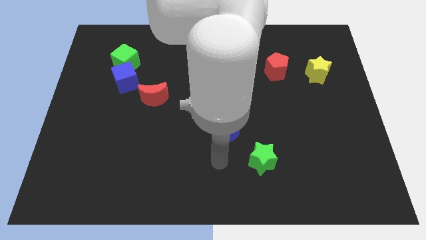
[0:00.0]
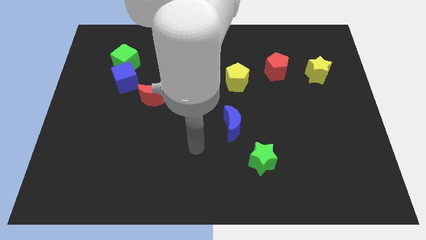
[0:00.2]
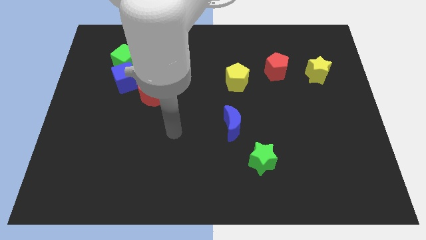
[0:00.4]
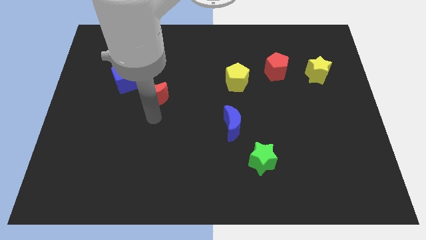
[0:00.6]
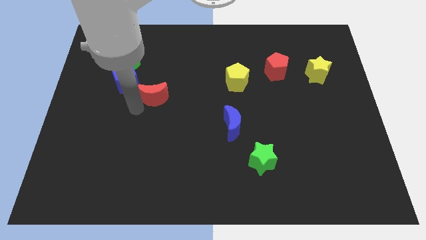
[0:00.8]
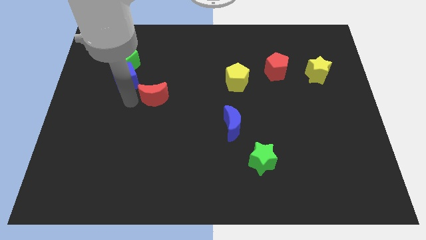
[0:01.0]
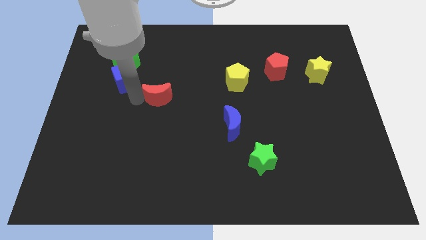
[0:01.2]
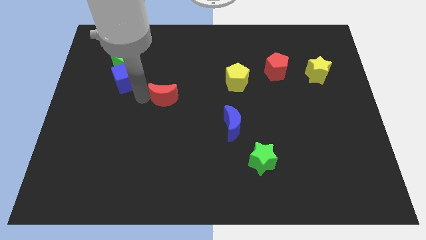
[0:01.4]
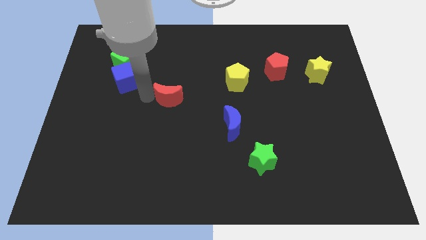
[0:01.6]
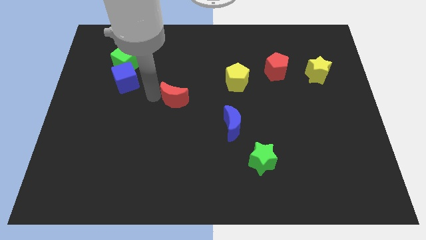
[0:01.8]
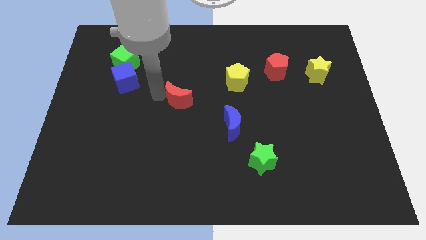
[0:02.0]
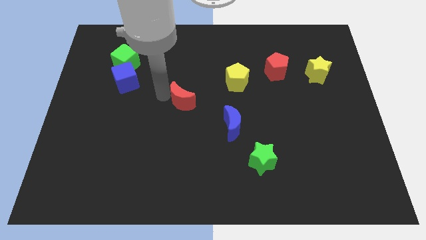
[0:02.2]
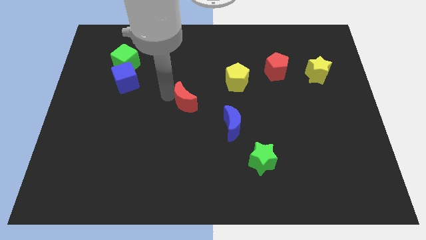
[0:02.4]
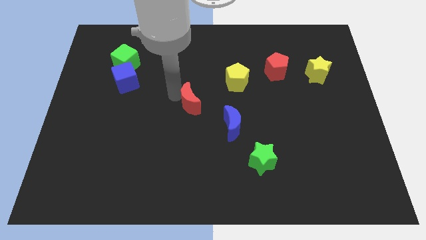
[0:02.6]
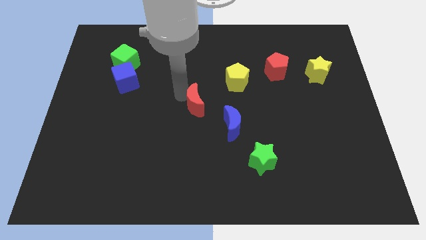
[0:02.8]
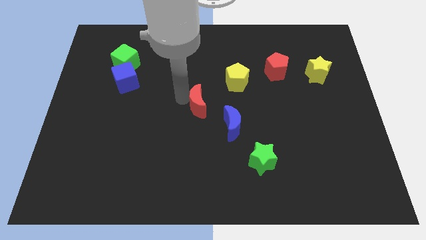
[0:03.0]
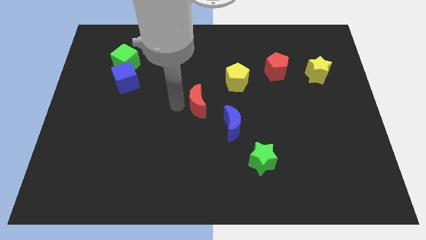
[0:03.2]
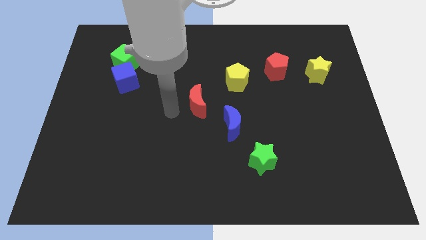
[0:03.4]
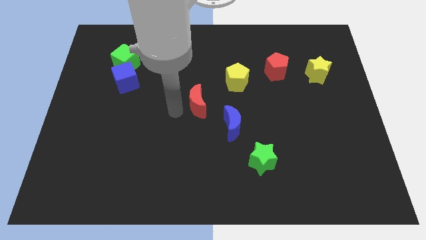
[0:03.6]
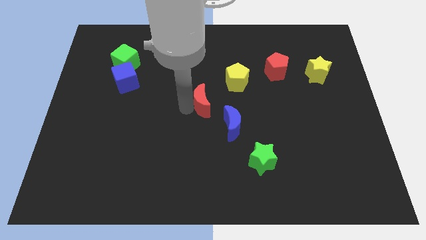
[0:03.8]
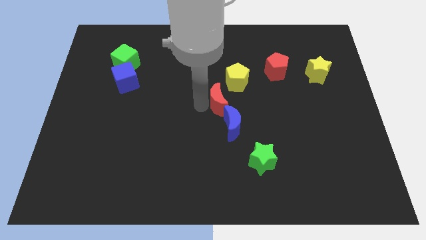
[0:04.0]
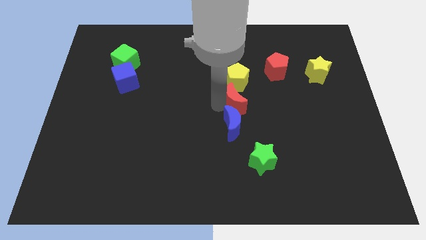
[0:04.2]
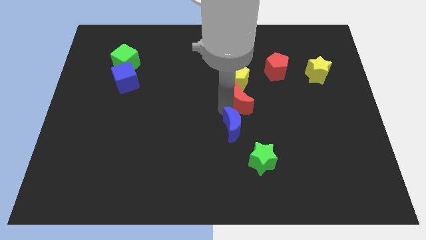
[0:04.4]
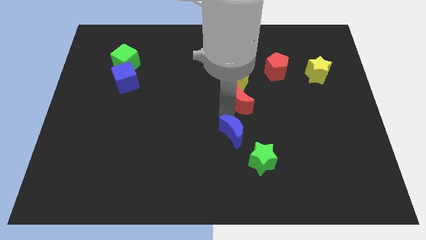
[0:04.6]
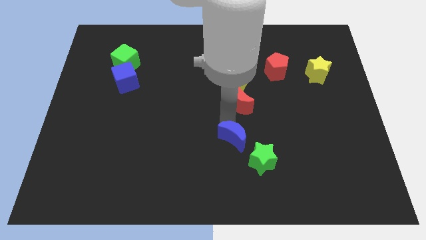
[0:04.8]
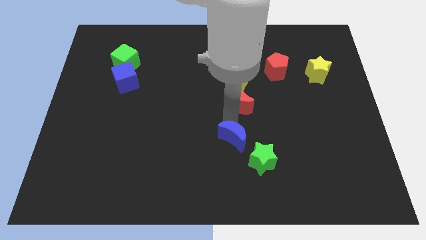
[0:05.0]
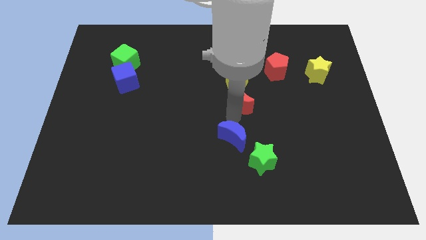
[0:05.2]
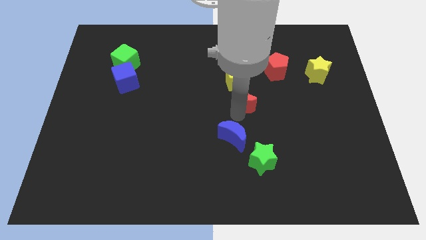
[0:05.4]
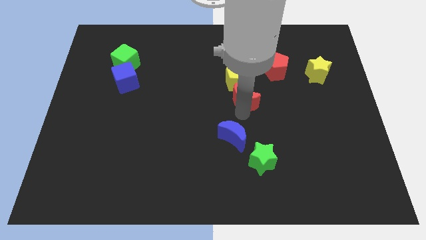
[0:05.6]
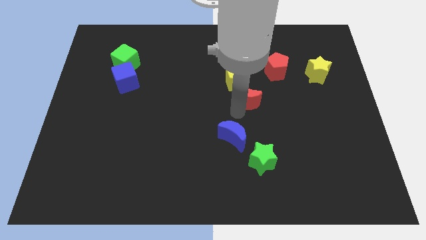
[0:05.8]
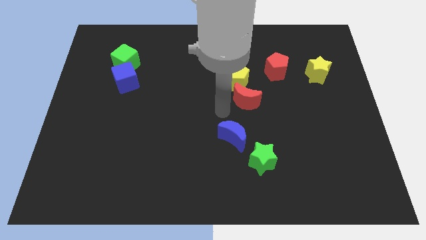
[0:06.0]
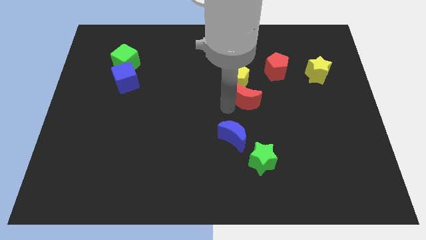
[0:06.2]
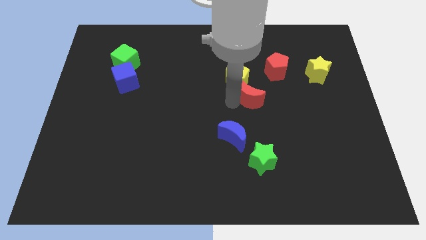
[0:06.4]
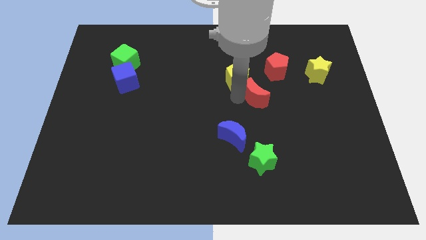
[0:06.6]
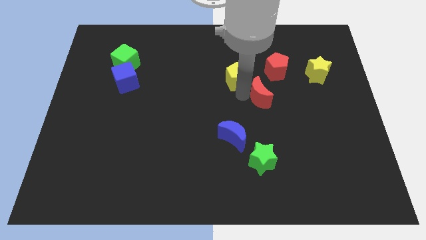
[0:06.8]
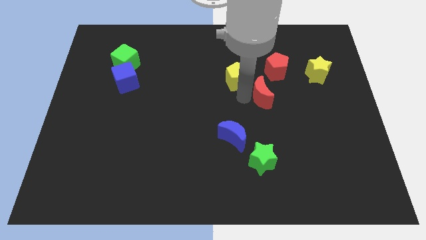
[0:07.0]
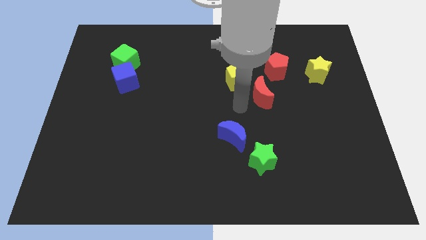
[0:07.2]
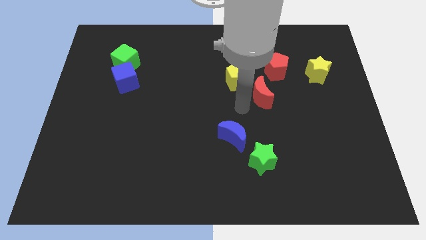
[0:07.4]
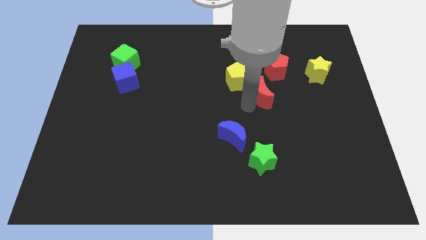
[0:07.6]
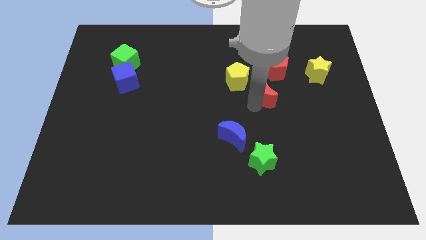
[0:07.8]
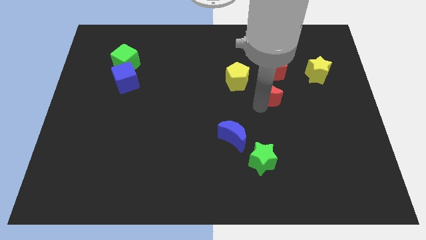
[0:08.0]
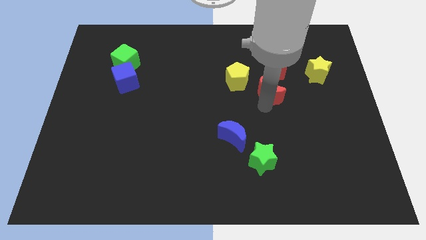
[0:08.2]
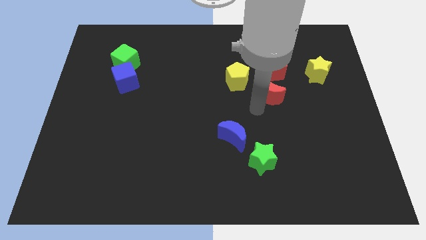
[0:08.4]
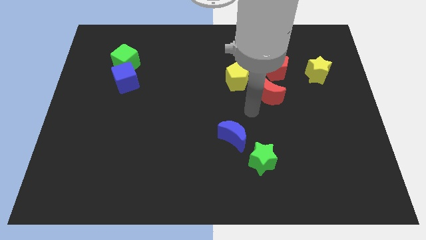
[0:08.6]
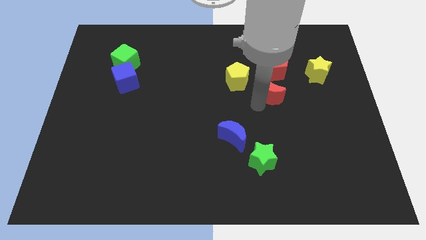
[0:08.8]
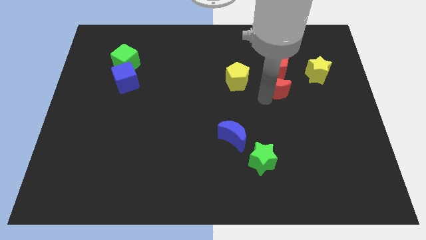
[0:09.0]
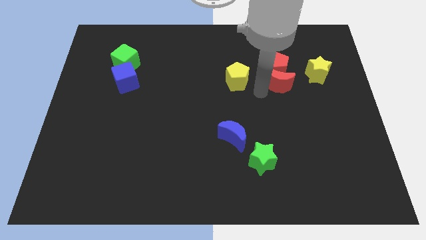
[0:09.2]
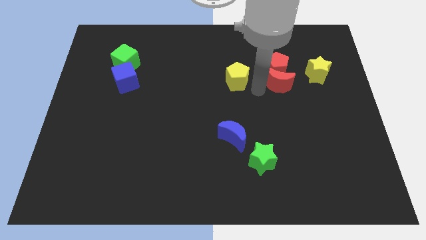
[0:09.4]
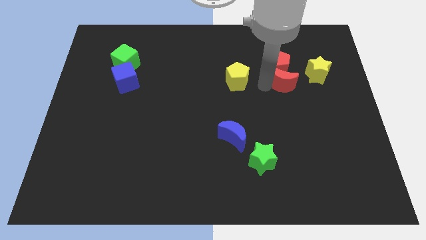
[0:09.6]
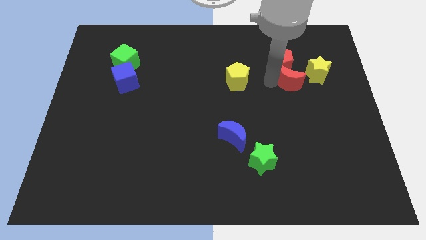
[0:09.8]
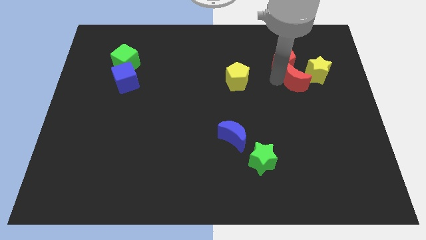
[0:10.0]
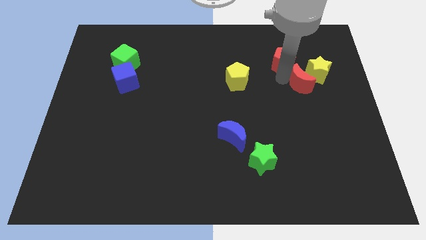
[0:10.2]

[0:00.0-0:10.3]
put the red moon towards the yellow star

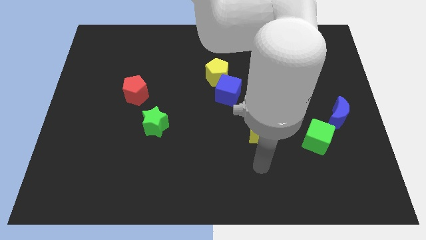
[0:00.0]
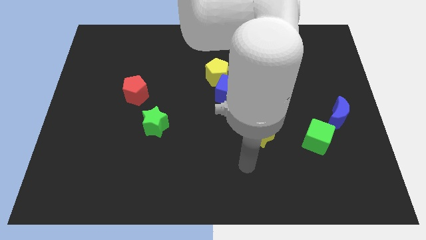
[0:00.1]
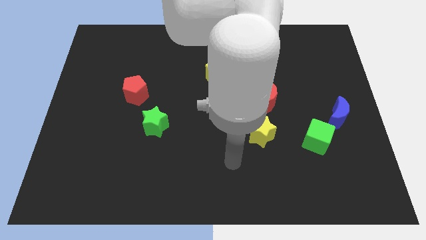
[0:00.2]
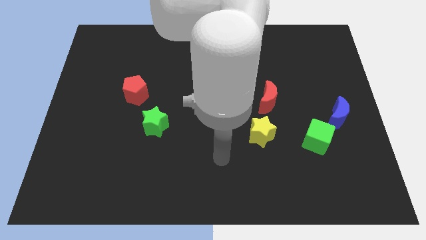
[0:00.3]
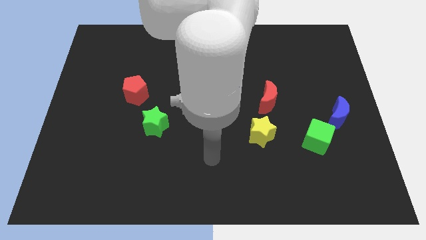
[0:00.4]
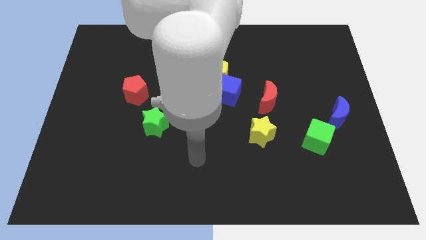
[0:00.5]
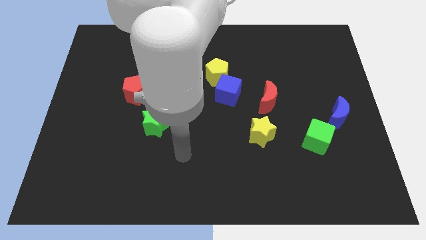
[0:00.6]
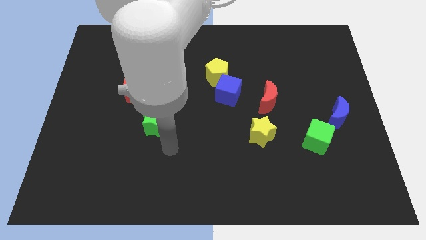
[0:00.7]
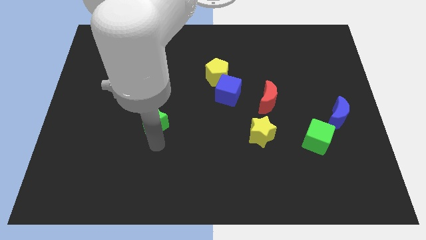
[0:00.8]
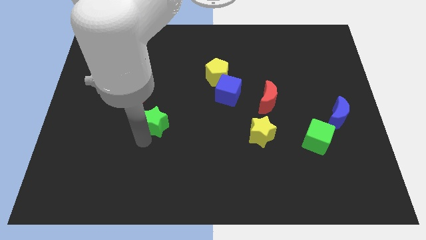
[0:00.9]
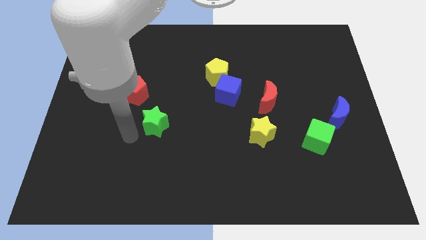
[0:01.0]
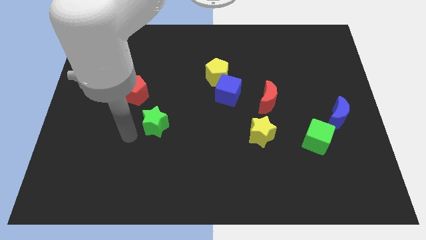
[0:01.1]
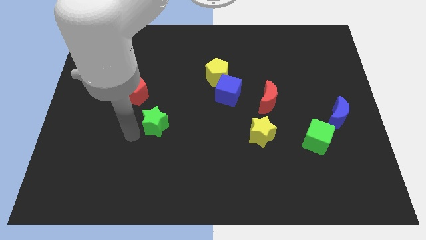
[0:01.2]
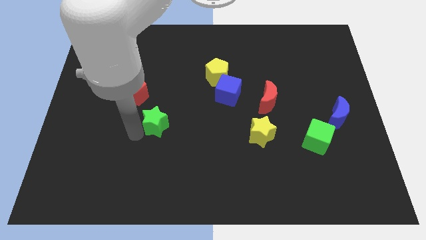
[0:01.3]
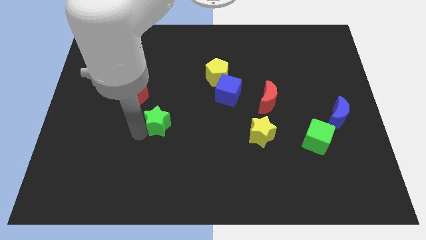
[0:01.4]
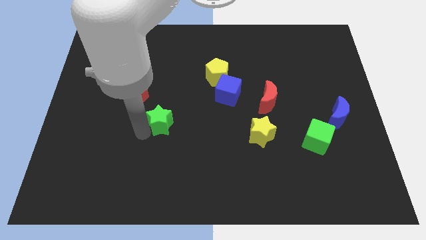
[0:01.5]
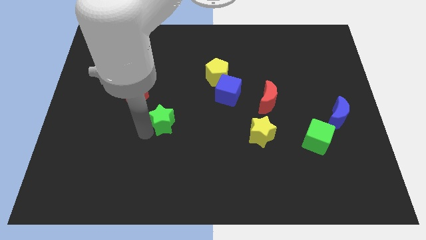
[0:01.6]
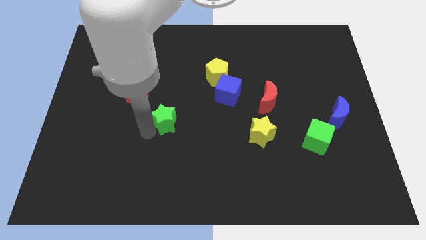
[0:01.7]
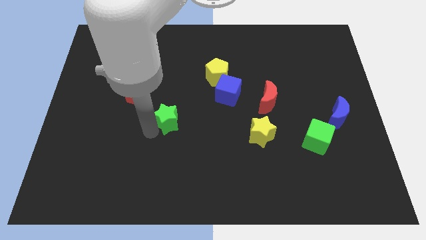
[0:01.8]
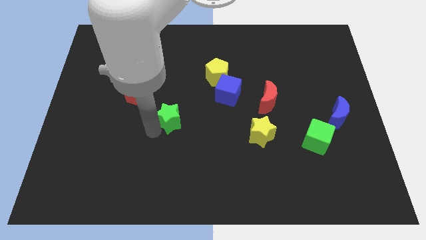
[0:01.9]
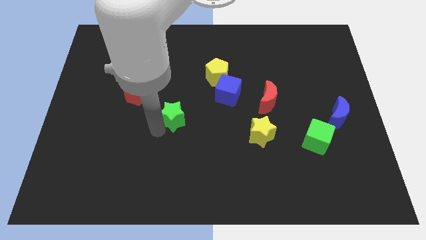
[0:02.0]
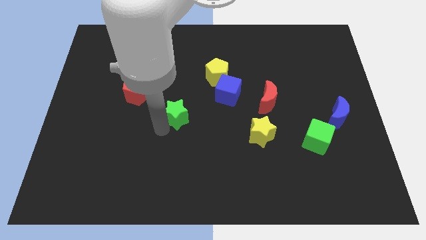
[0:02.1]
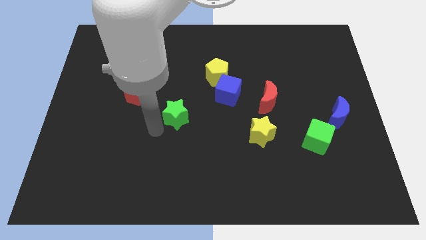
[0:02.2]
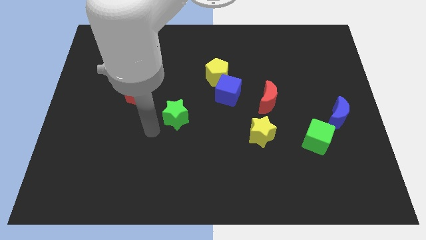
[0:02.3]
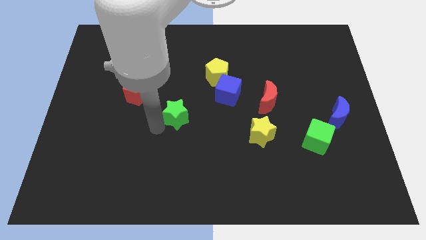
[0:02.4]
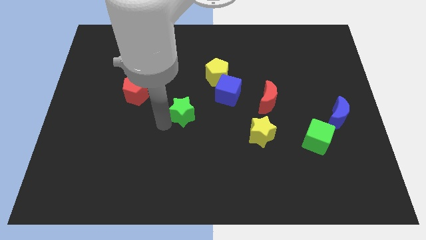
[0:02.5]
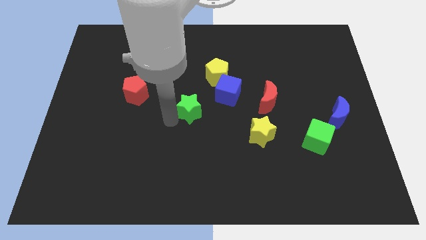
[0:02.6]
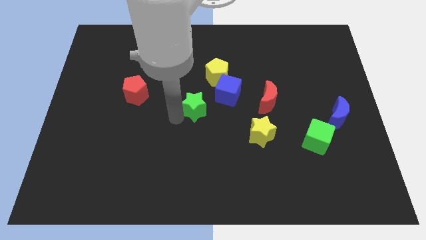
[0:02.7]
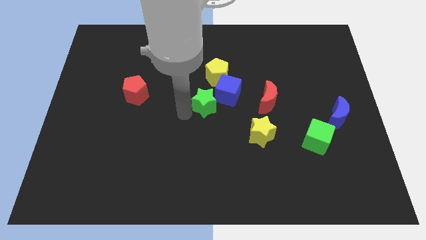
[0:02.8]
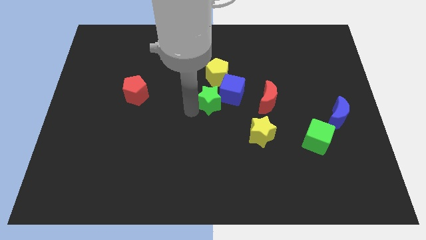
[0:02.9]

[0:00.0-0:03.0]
slide the green star to the blue cube
